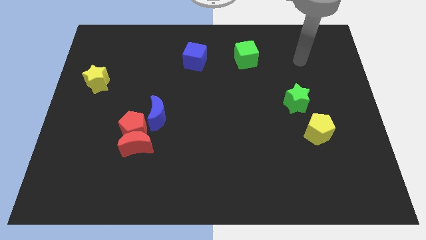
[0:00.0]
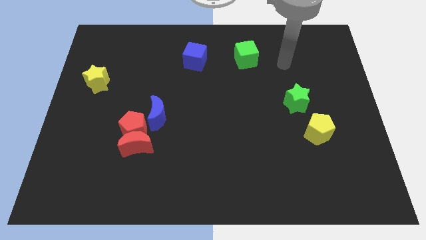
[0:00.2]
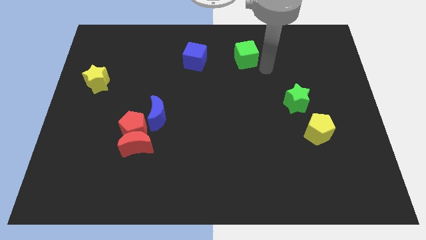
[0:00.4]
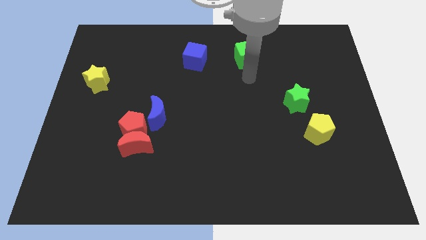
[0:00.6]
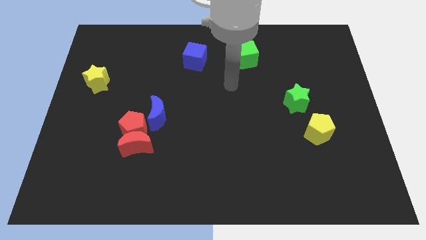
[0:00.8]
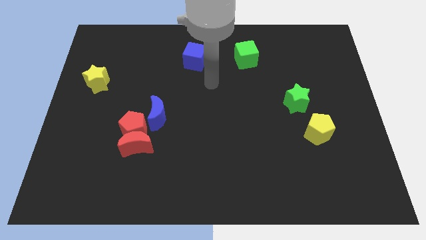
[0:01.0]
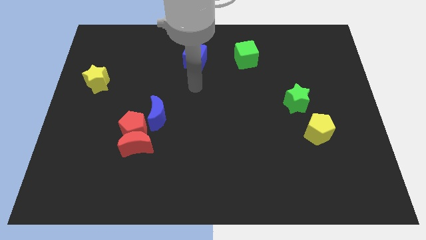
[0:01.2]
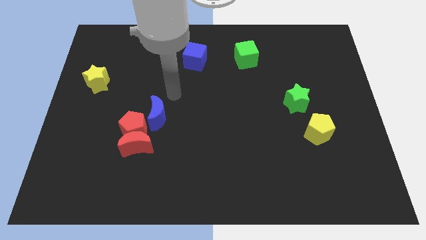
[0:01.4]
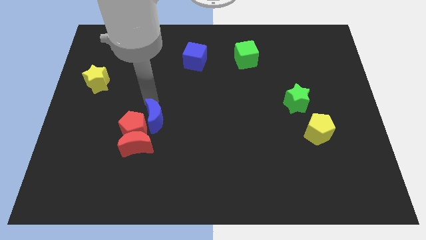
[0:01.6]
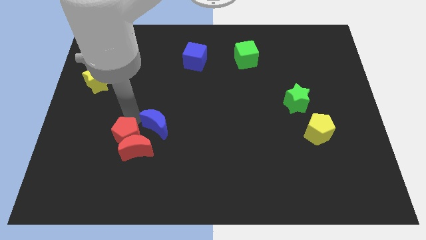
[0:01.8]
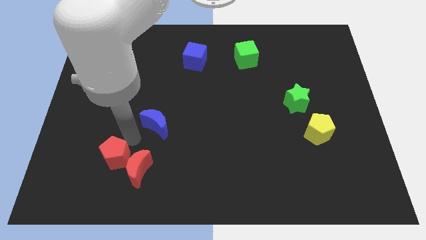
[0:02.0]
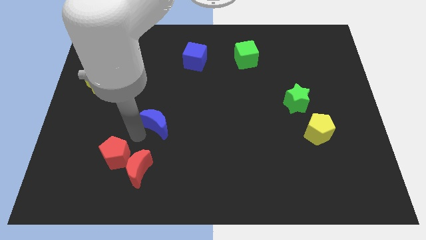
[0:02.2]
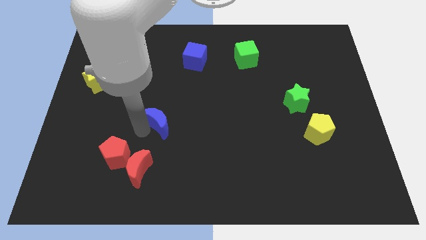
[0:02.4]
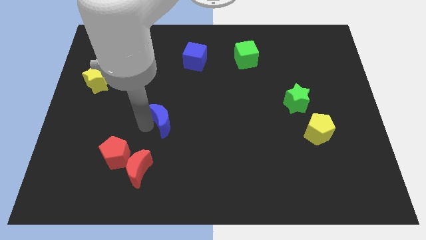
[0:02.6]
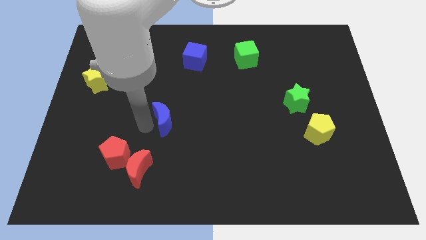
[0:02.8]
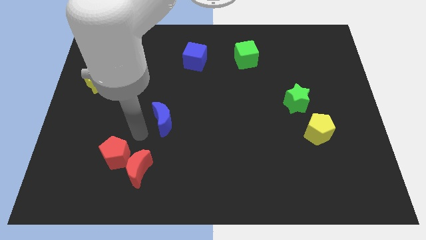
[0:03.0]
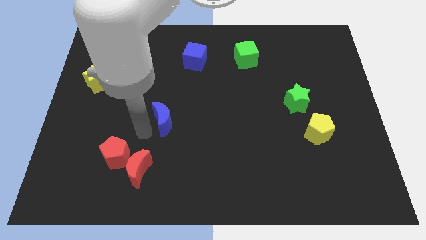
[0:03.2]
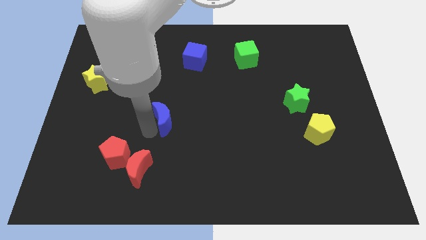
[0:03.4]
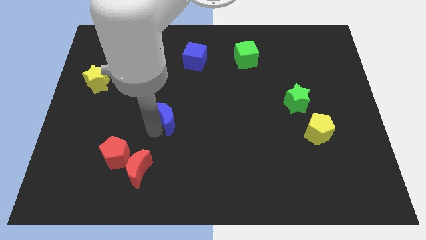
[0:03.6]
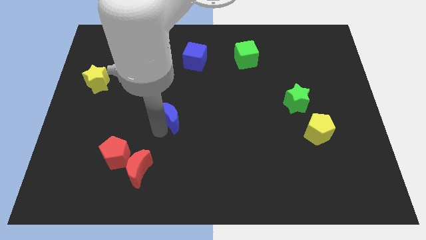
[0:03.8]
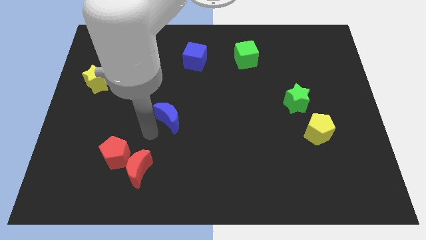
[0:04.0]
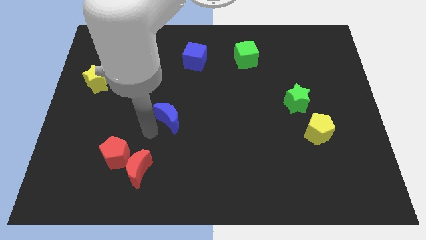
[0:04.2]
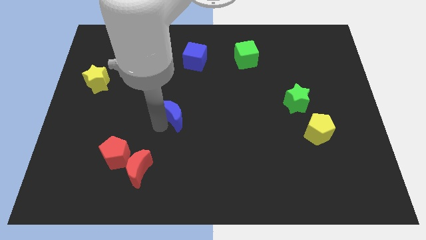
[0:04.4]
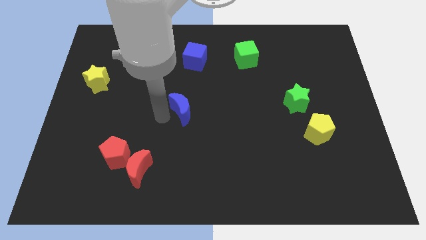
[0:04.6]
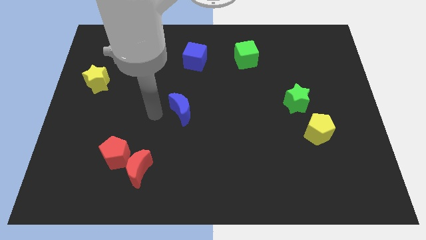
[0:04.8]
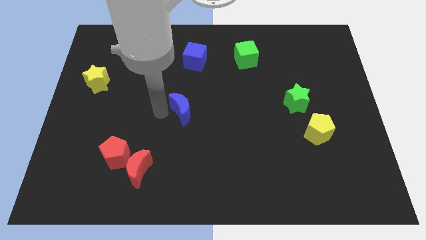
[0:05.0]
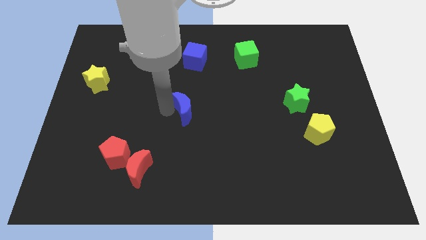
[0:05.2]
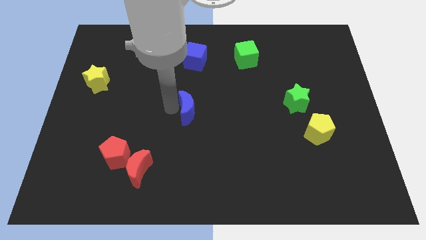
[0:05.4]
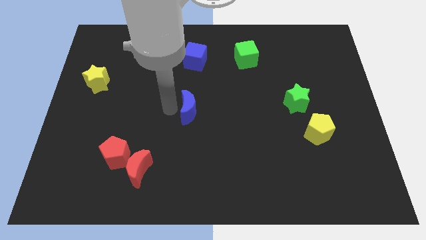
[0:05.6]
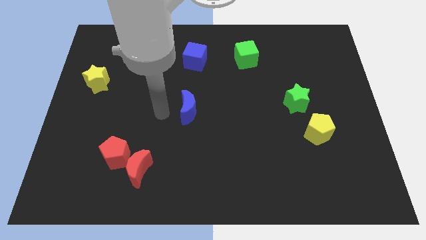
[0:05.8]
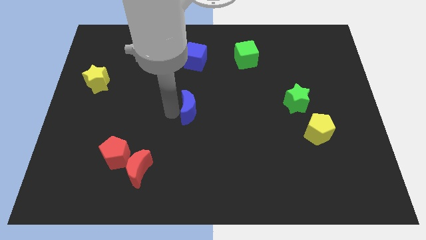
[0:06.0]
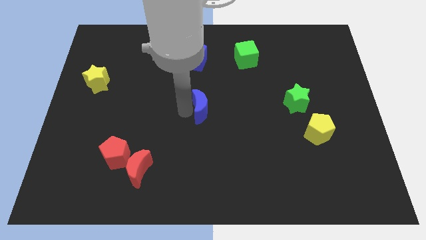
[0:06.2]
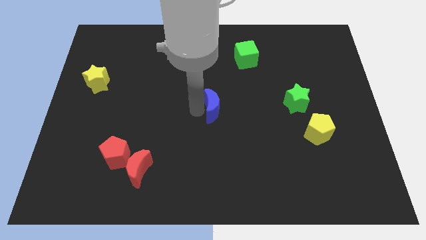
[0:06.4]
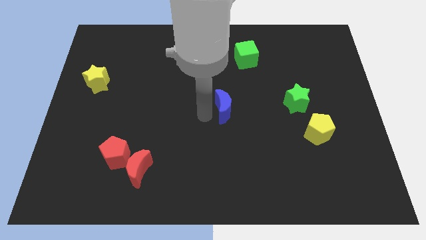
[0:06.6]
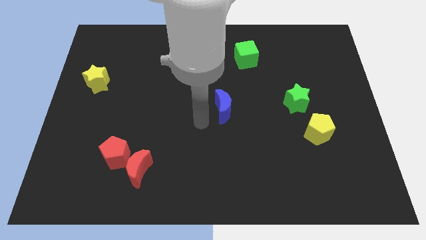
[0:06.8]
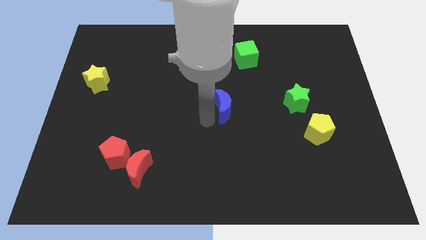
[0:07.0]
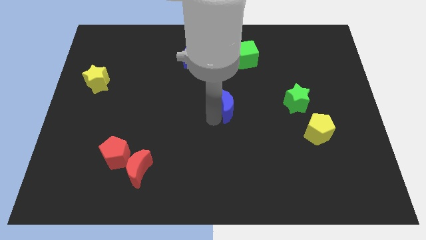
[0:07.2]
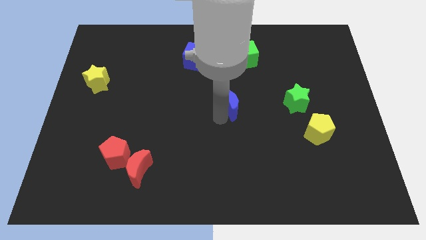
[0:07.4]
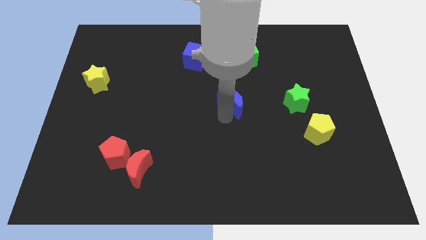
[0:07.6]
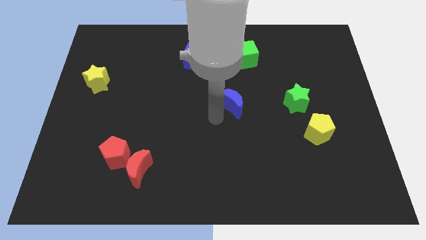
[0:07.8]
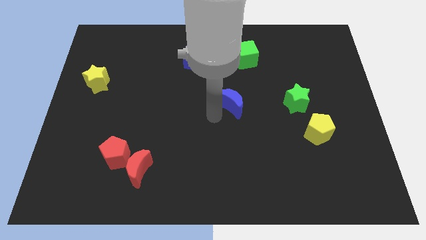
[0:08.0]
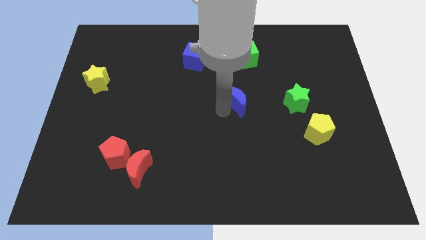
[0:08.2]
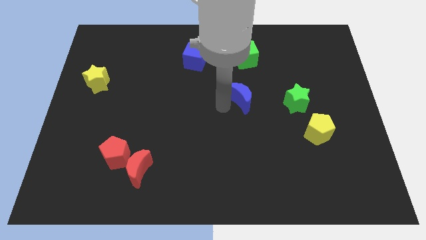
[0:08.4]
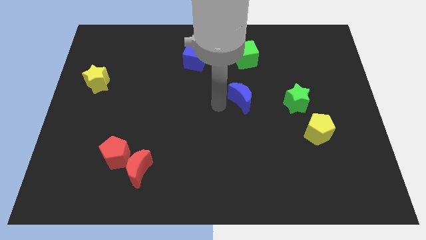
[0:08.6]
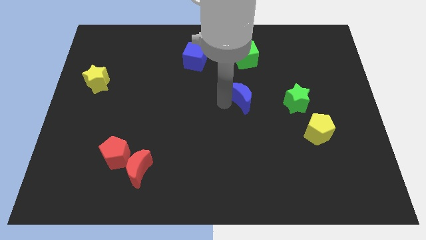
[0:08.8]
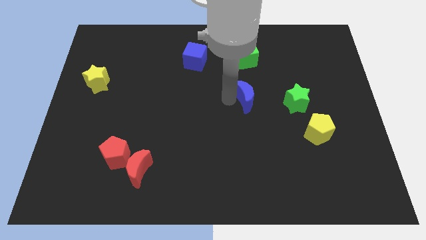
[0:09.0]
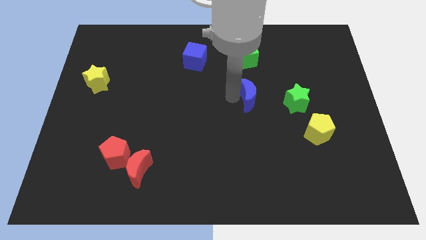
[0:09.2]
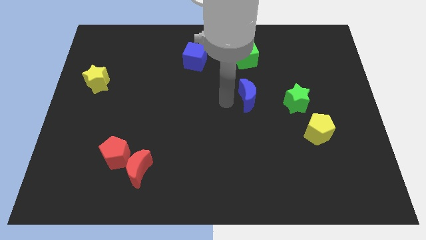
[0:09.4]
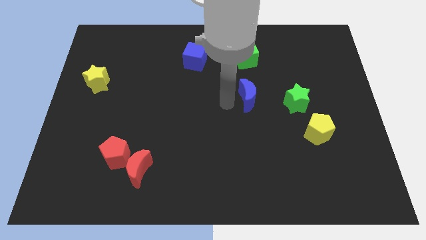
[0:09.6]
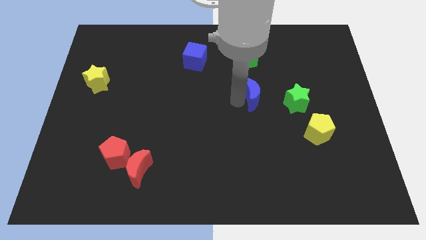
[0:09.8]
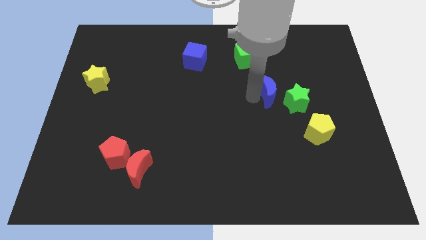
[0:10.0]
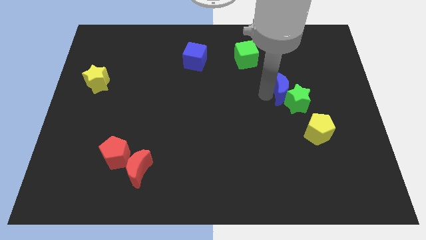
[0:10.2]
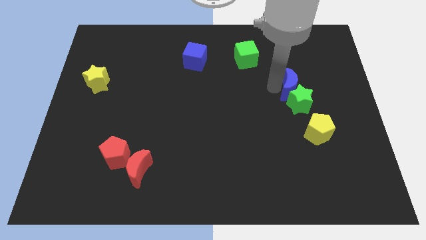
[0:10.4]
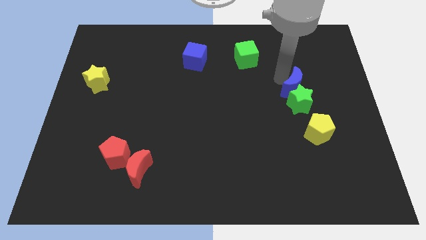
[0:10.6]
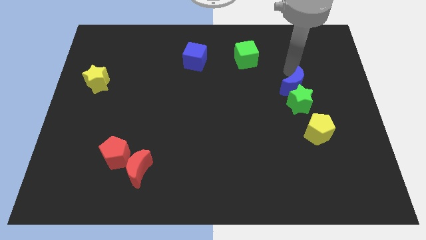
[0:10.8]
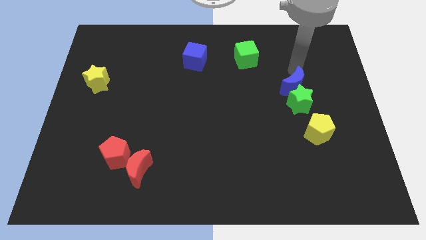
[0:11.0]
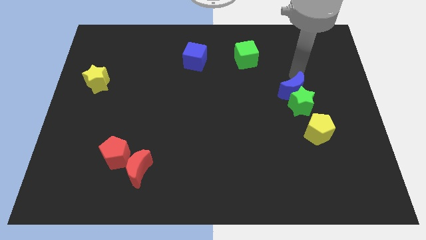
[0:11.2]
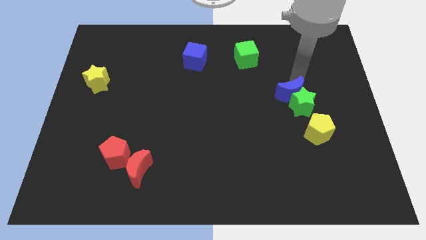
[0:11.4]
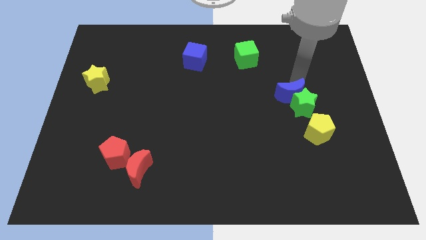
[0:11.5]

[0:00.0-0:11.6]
push the blue moon diagonally up and to the left of the yellow pentagon
